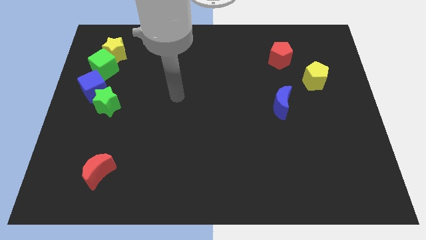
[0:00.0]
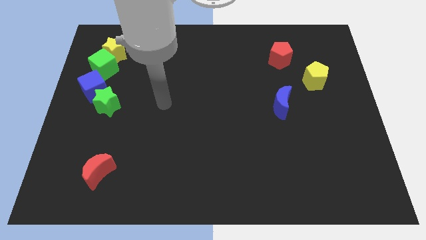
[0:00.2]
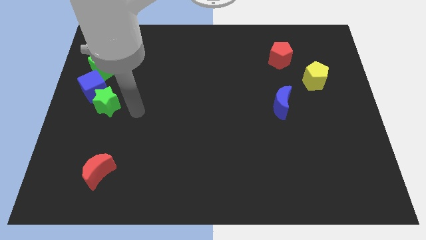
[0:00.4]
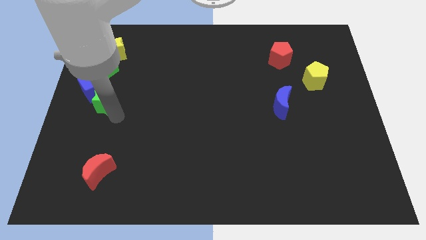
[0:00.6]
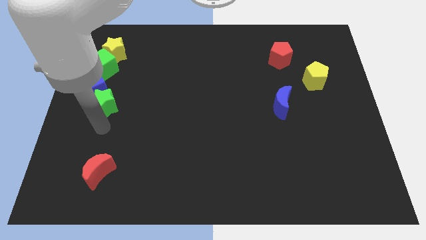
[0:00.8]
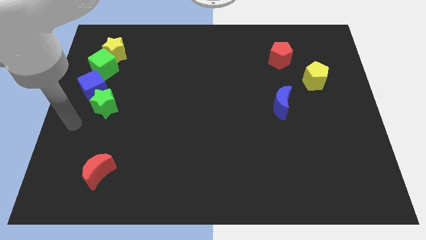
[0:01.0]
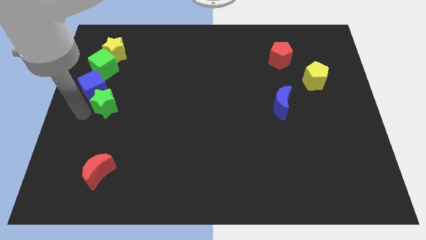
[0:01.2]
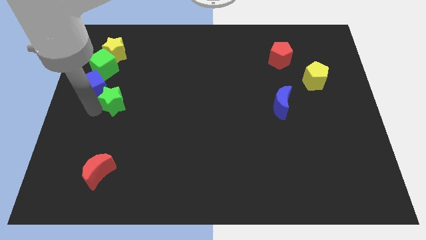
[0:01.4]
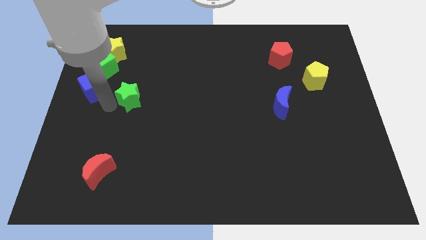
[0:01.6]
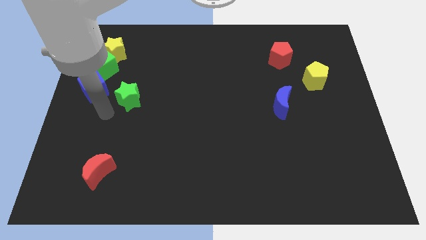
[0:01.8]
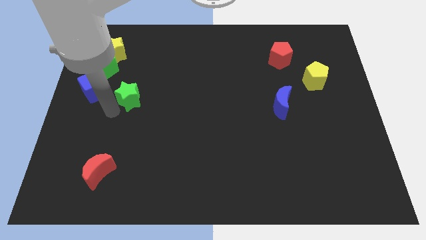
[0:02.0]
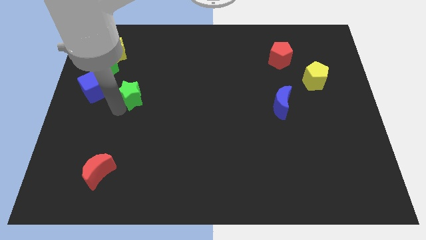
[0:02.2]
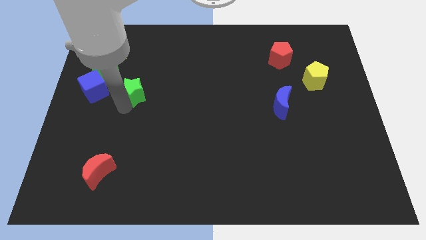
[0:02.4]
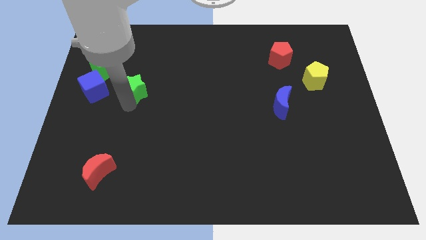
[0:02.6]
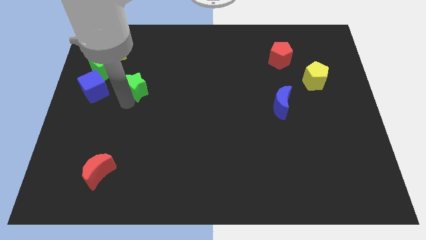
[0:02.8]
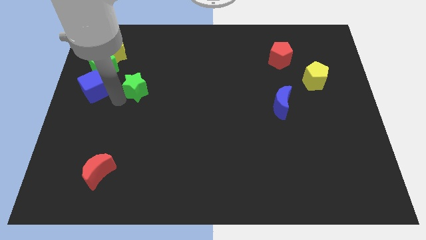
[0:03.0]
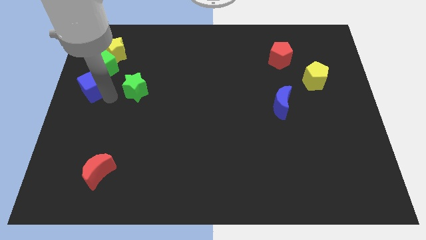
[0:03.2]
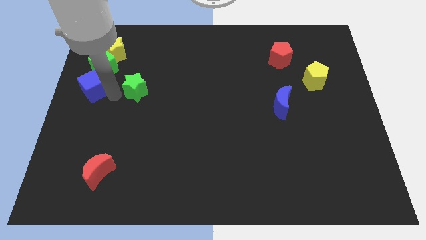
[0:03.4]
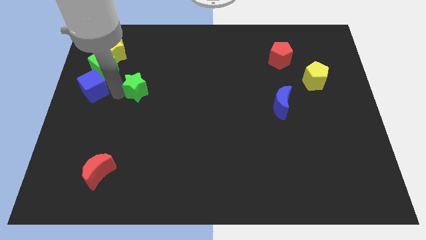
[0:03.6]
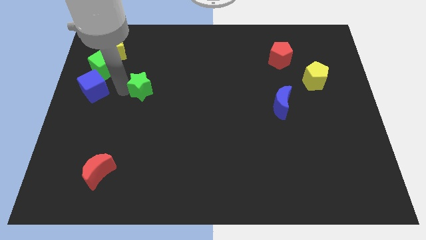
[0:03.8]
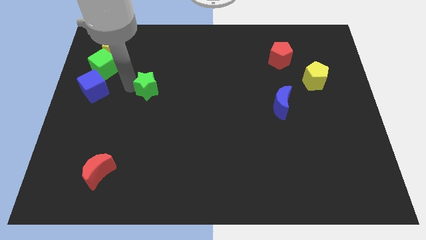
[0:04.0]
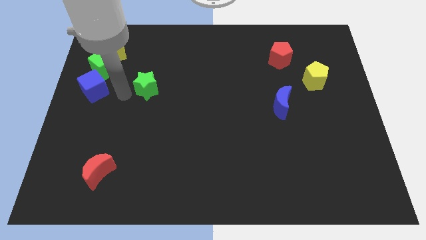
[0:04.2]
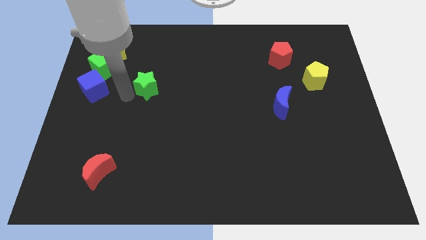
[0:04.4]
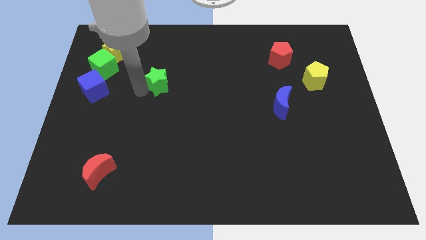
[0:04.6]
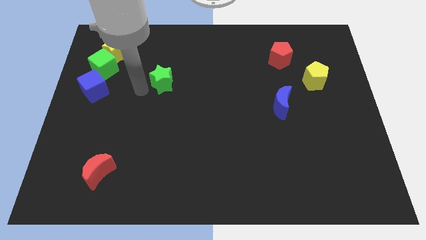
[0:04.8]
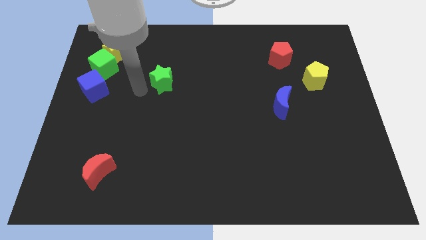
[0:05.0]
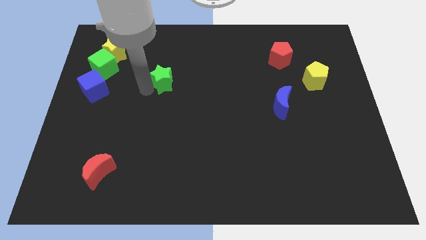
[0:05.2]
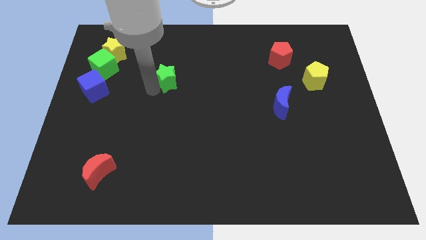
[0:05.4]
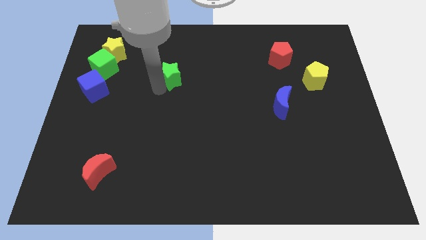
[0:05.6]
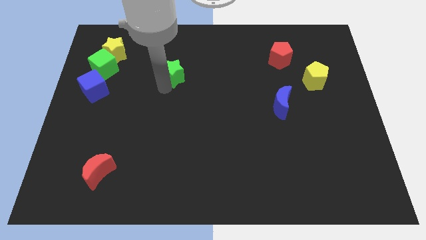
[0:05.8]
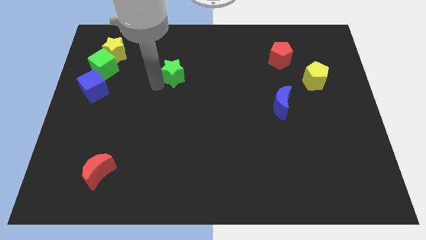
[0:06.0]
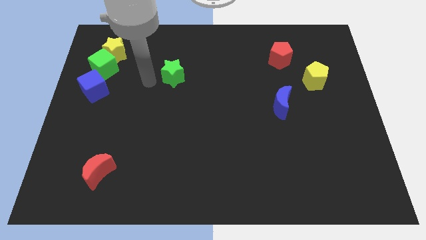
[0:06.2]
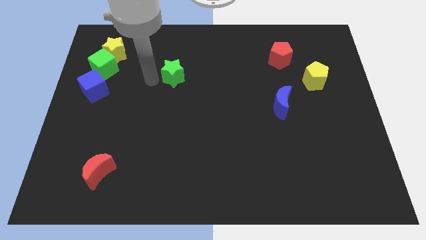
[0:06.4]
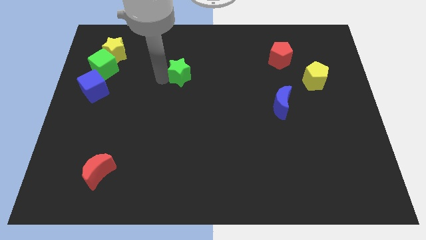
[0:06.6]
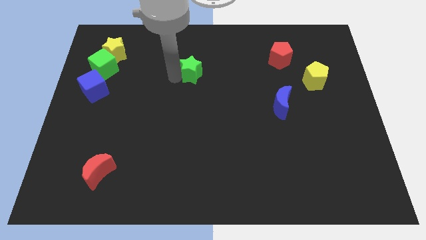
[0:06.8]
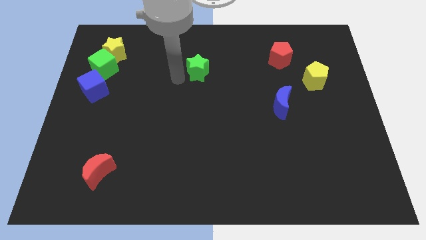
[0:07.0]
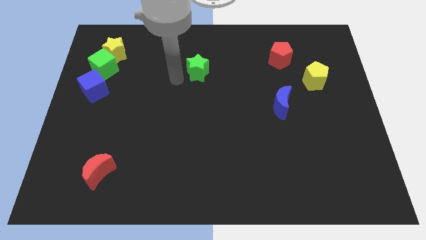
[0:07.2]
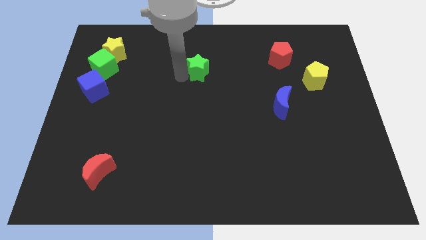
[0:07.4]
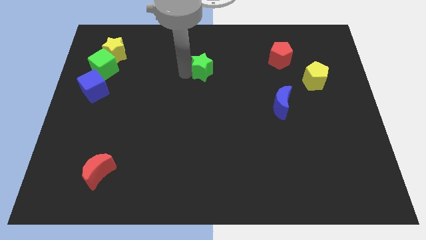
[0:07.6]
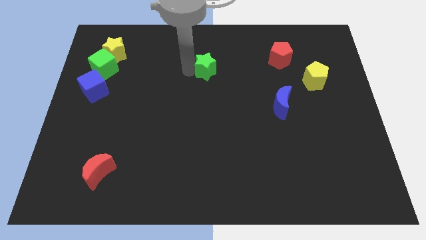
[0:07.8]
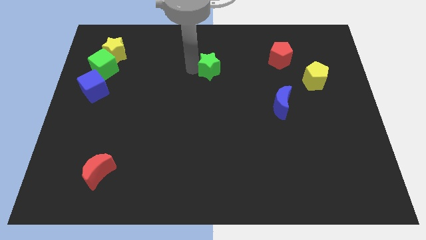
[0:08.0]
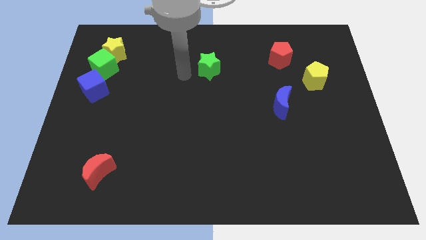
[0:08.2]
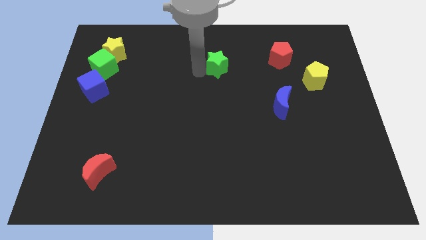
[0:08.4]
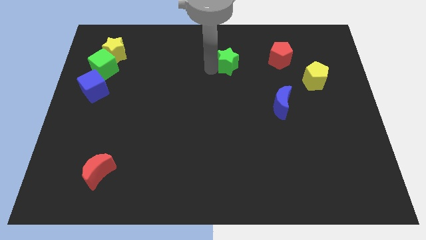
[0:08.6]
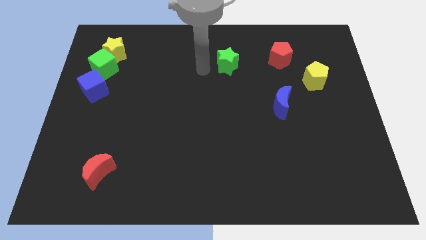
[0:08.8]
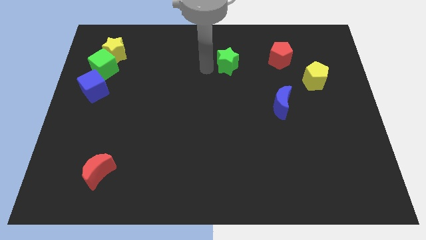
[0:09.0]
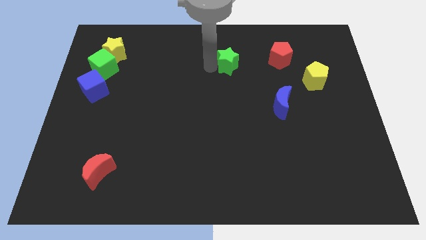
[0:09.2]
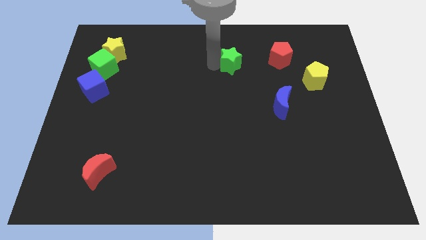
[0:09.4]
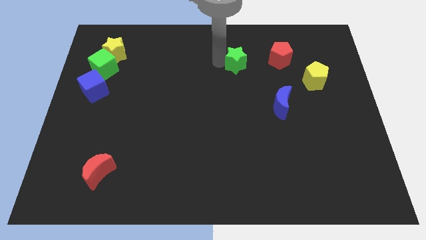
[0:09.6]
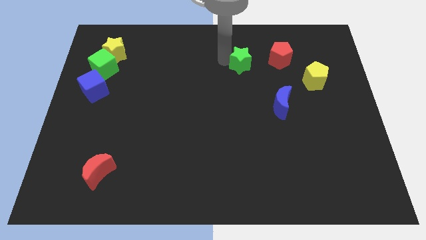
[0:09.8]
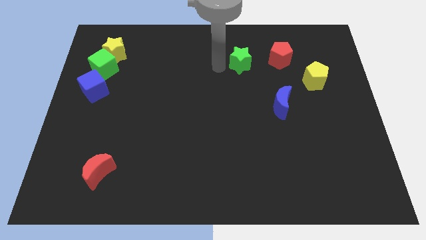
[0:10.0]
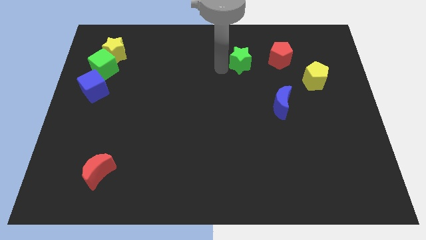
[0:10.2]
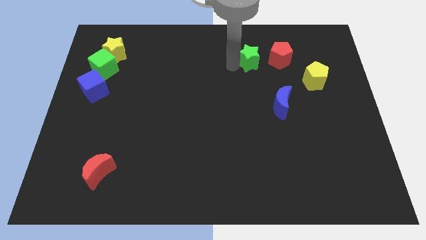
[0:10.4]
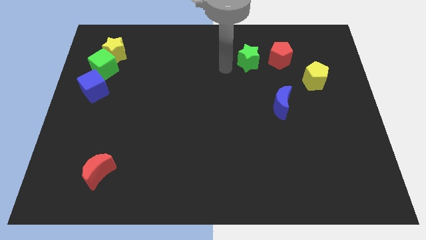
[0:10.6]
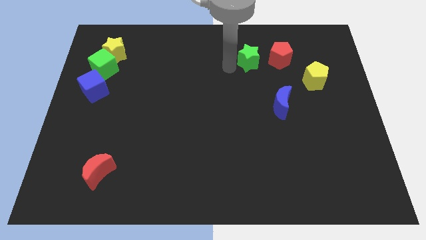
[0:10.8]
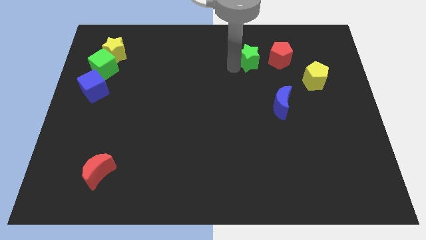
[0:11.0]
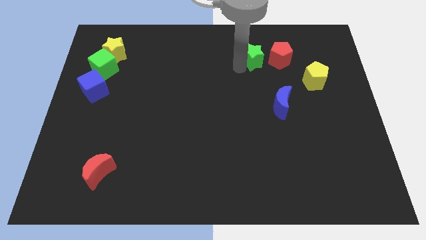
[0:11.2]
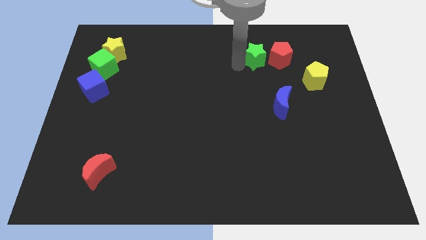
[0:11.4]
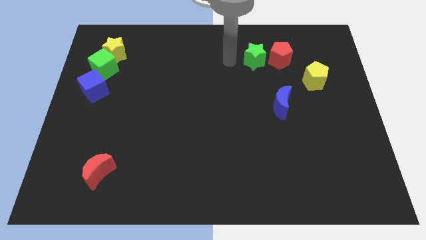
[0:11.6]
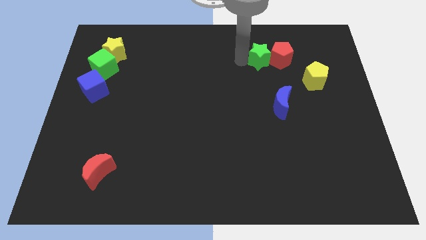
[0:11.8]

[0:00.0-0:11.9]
put the green star close to the red pentagon

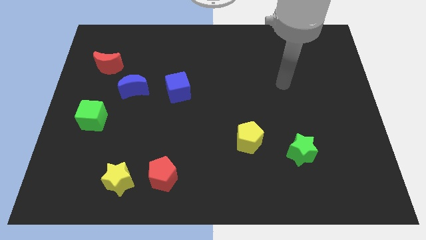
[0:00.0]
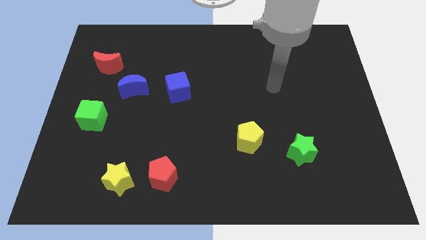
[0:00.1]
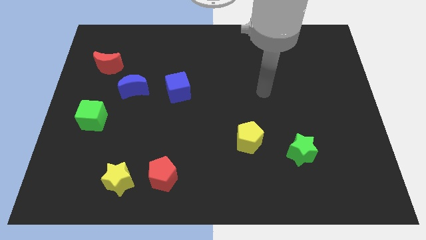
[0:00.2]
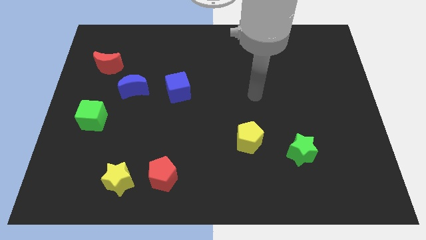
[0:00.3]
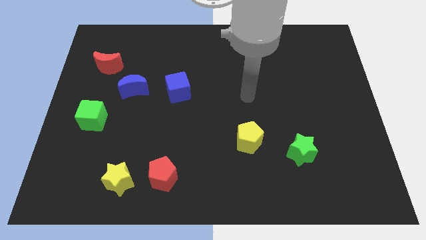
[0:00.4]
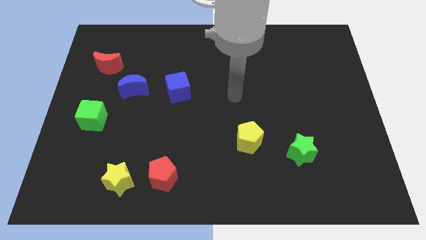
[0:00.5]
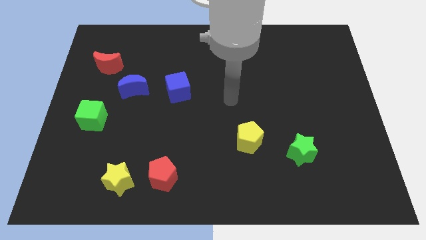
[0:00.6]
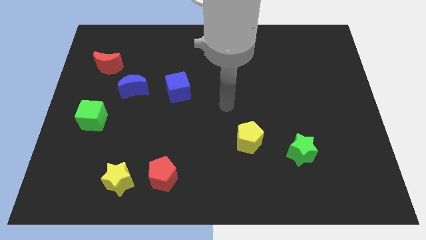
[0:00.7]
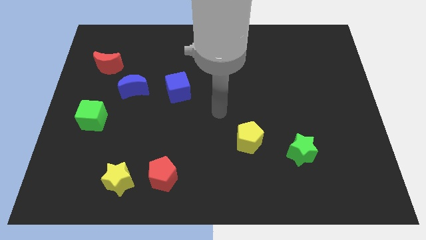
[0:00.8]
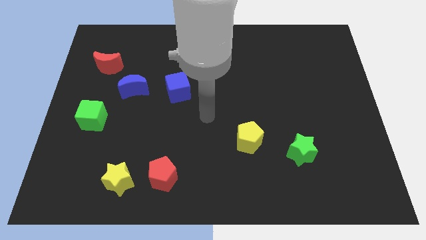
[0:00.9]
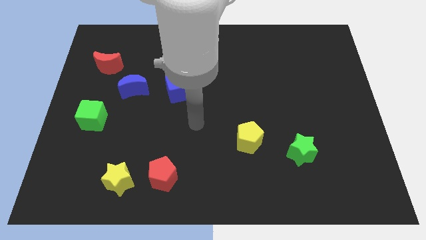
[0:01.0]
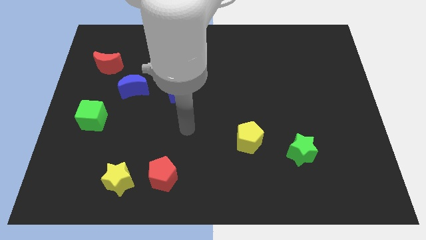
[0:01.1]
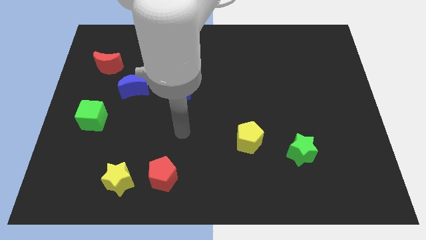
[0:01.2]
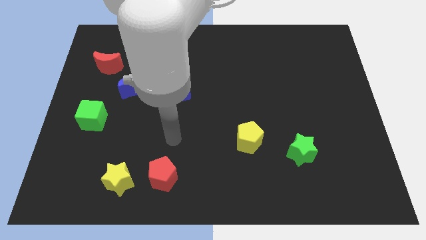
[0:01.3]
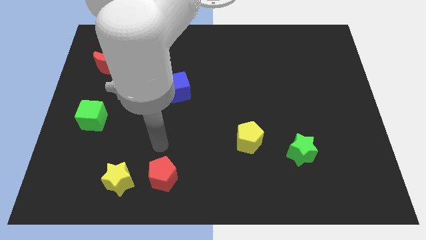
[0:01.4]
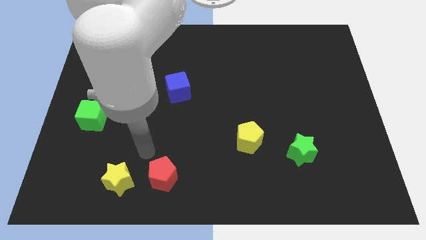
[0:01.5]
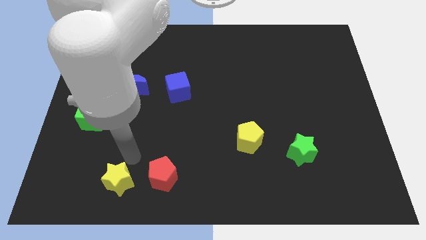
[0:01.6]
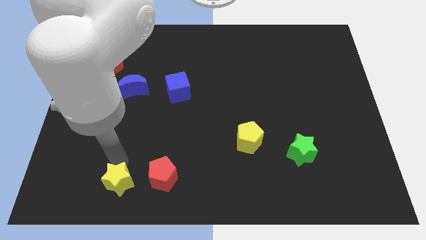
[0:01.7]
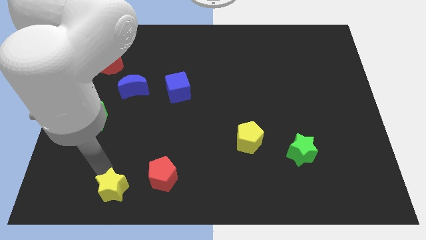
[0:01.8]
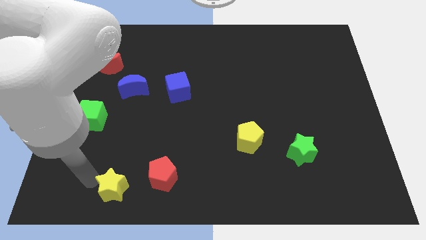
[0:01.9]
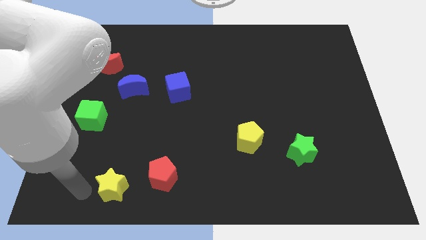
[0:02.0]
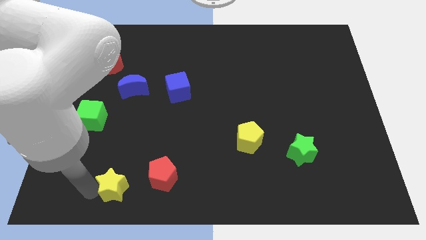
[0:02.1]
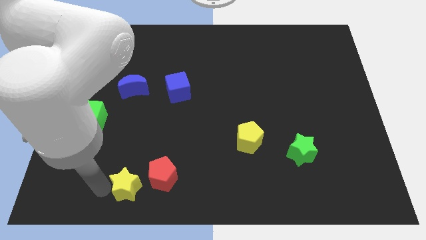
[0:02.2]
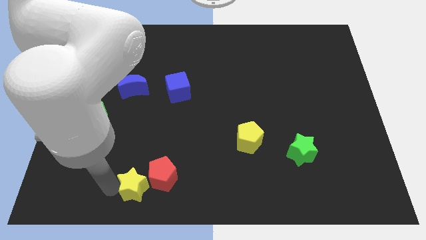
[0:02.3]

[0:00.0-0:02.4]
push the yellow star to the red pentagon
